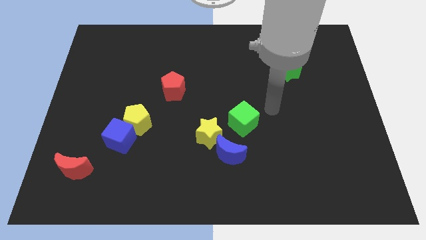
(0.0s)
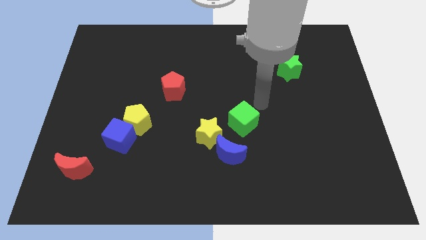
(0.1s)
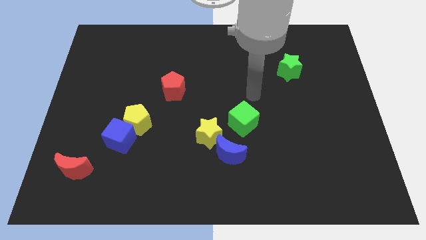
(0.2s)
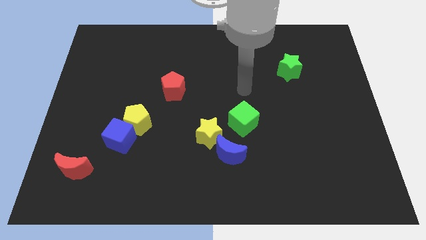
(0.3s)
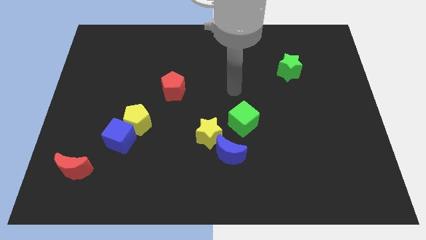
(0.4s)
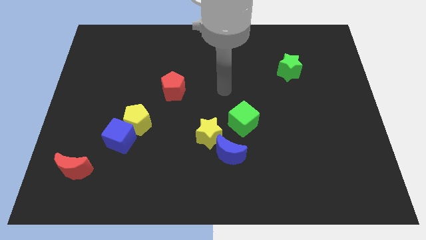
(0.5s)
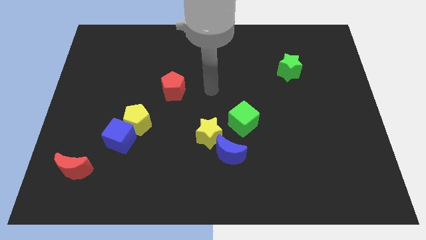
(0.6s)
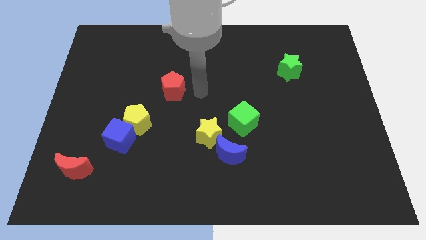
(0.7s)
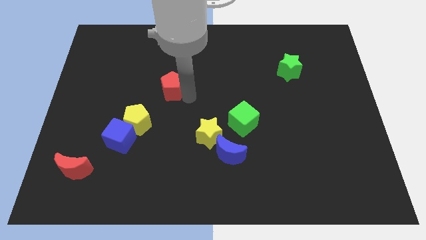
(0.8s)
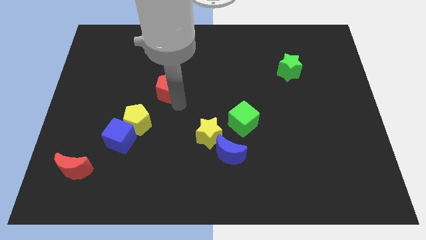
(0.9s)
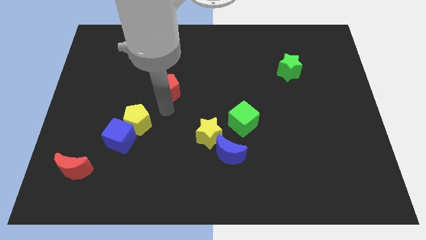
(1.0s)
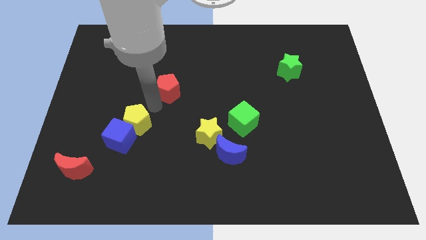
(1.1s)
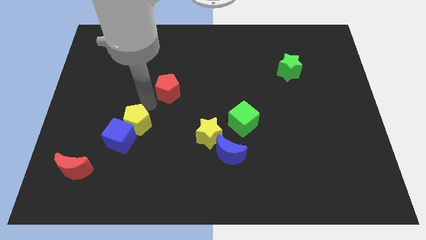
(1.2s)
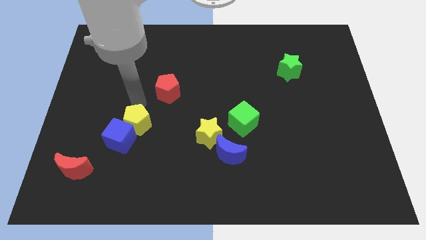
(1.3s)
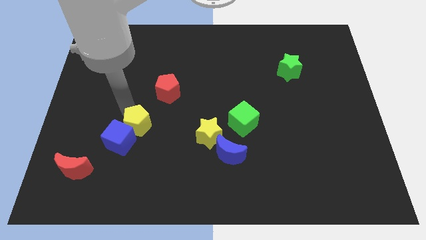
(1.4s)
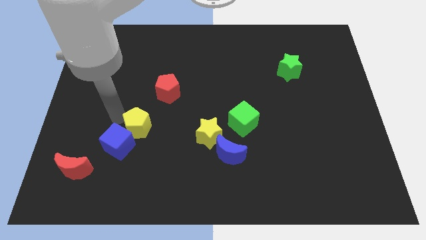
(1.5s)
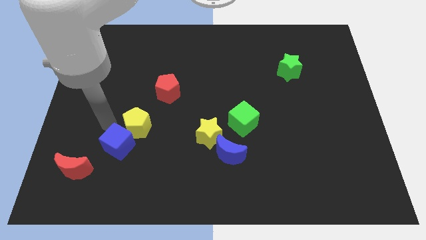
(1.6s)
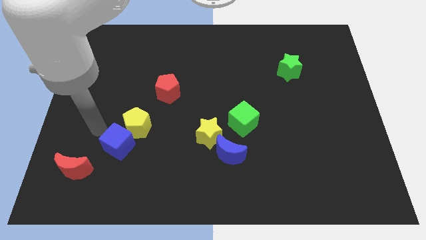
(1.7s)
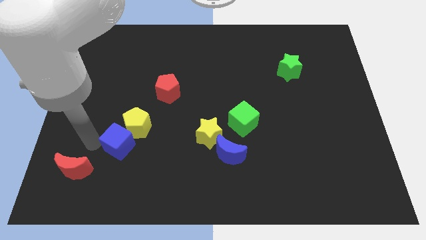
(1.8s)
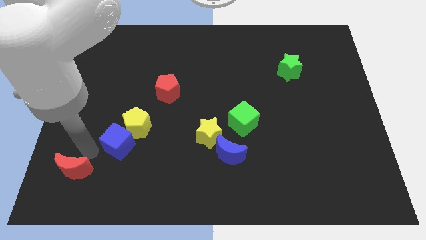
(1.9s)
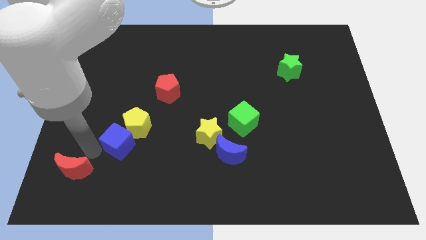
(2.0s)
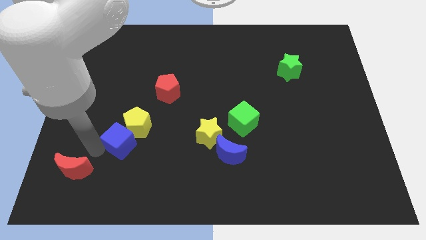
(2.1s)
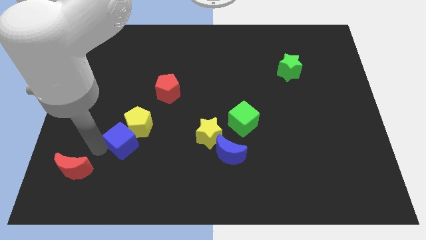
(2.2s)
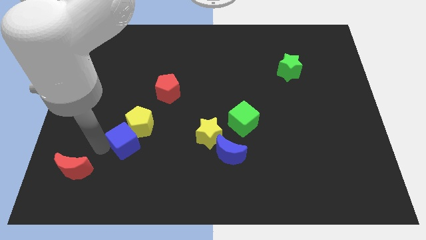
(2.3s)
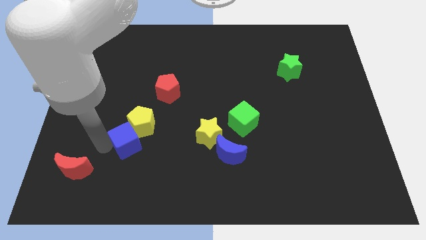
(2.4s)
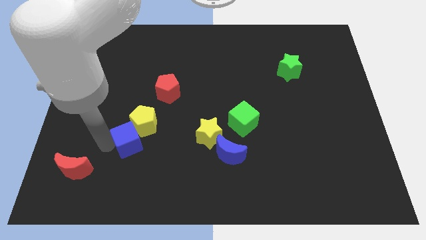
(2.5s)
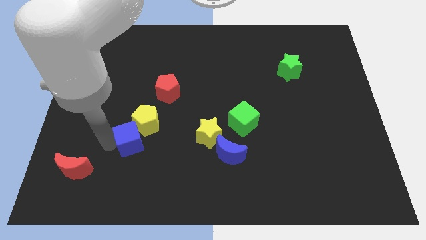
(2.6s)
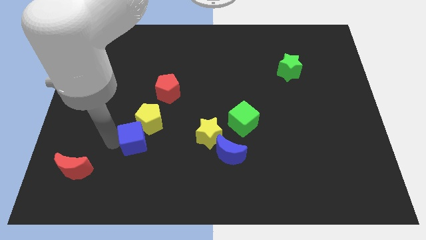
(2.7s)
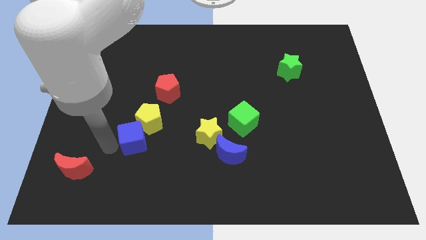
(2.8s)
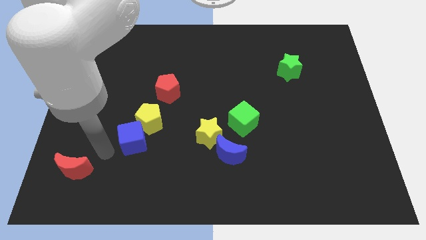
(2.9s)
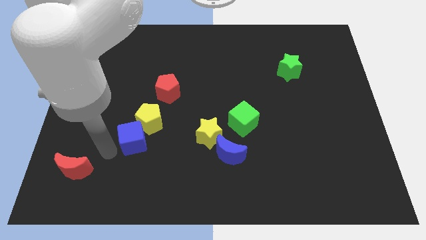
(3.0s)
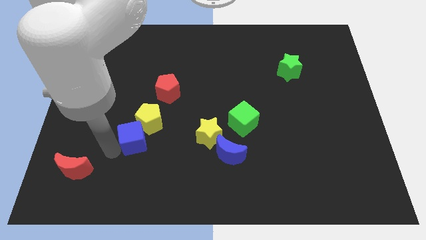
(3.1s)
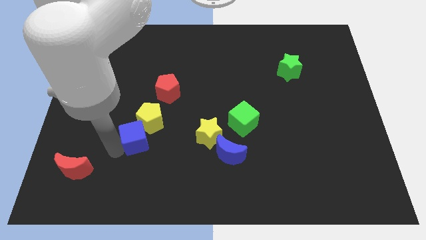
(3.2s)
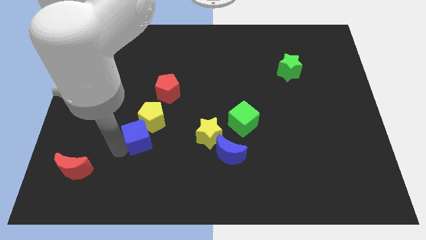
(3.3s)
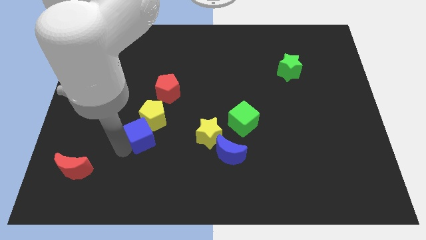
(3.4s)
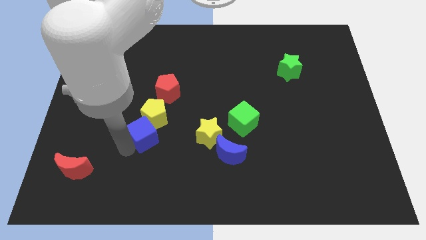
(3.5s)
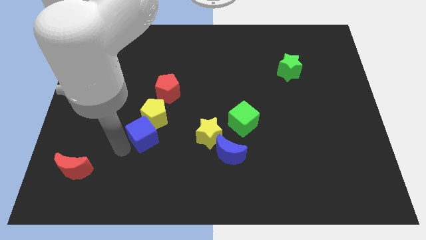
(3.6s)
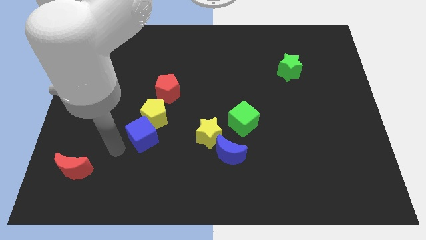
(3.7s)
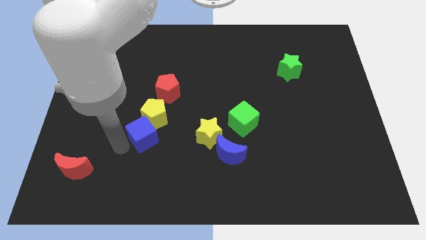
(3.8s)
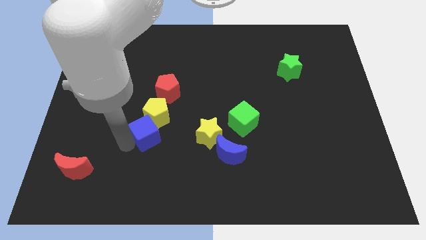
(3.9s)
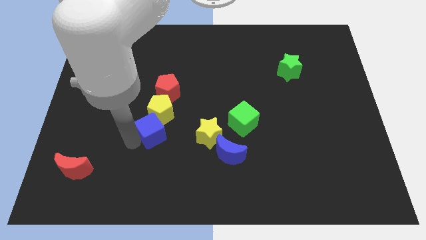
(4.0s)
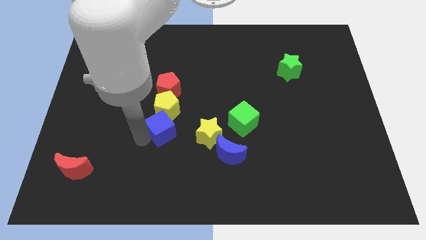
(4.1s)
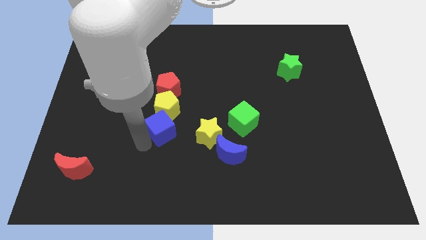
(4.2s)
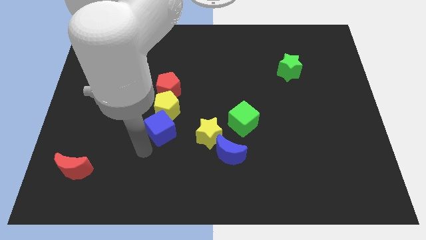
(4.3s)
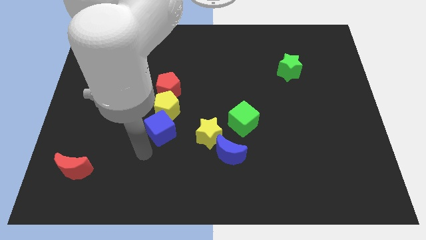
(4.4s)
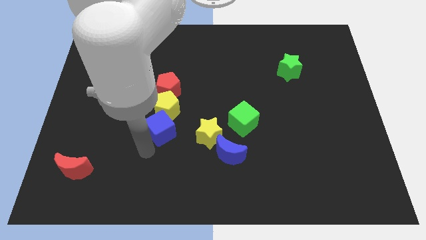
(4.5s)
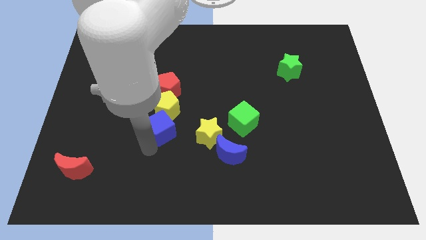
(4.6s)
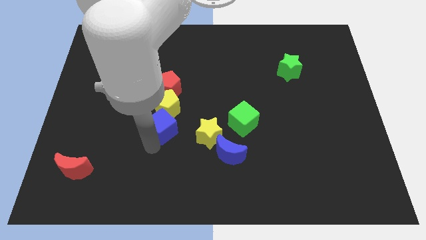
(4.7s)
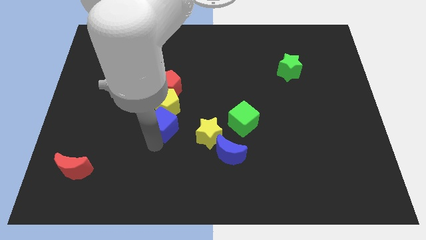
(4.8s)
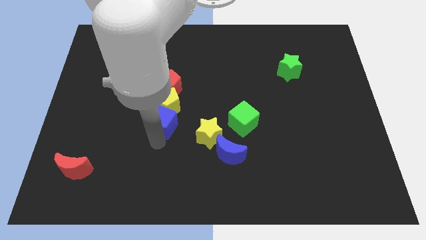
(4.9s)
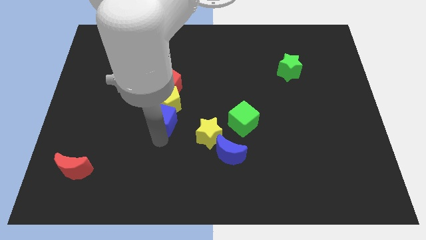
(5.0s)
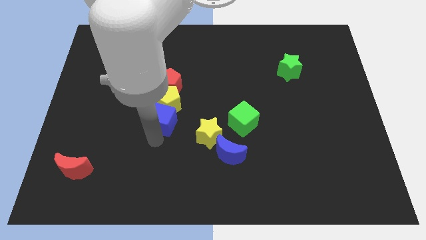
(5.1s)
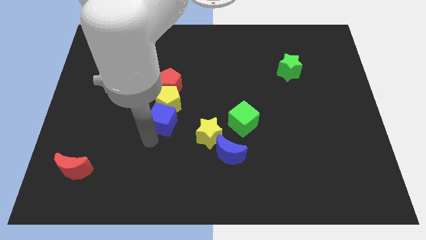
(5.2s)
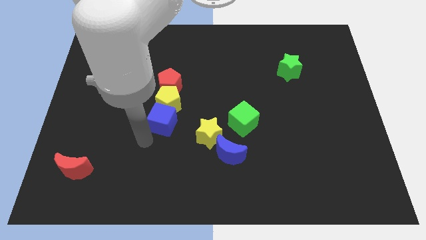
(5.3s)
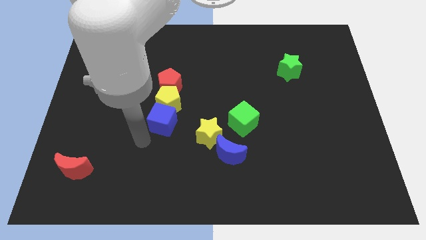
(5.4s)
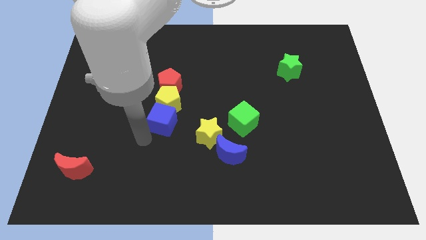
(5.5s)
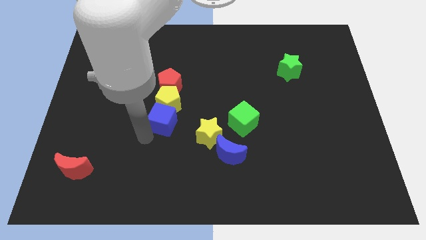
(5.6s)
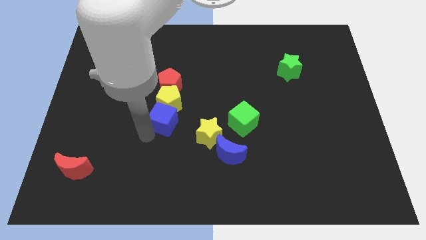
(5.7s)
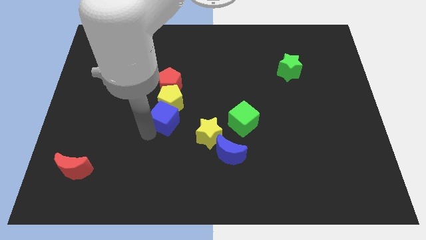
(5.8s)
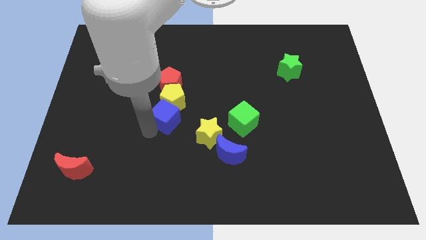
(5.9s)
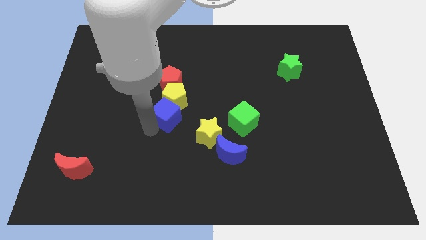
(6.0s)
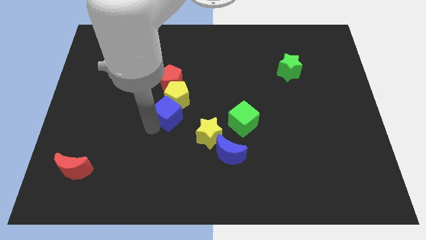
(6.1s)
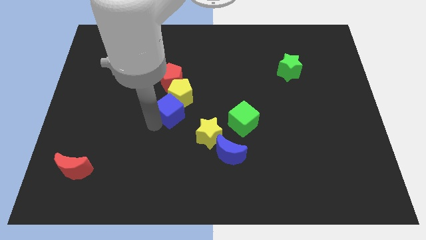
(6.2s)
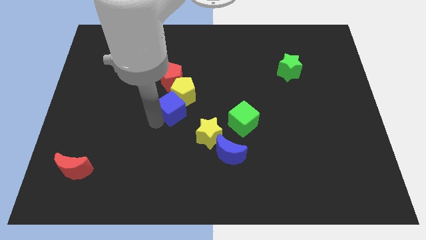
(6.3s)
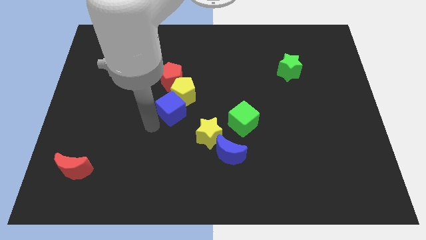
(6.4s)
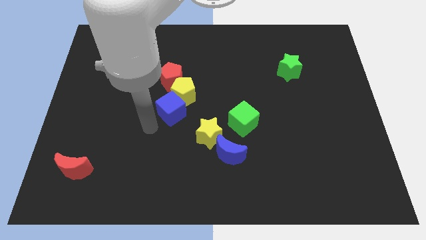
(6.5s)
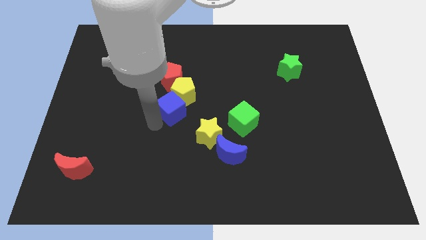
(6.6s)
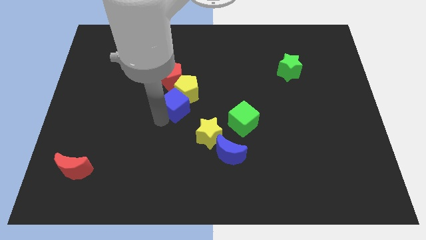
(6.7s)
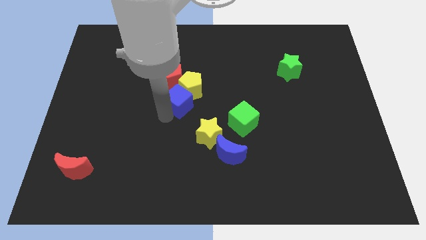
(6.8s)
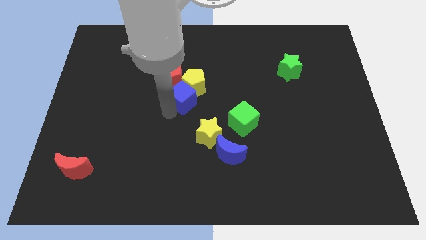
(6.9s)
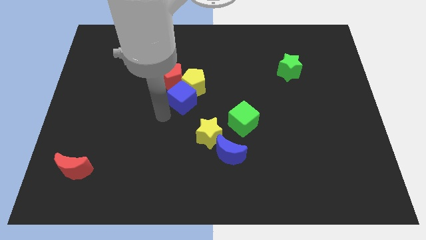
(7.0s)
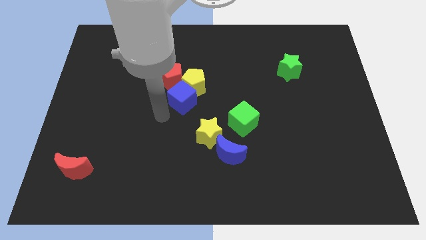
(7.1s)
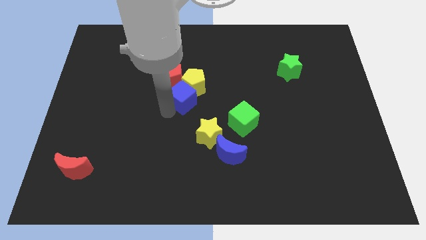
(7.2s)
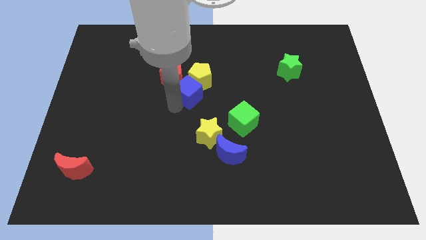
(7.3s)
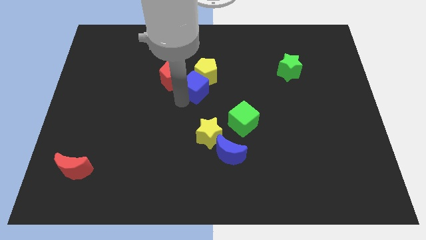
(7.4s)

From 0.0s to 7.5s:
push the blue cube upwards and right

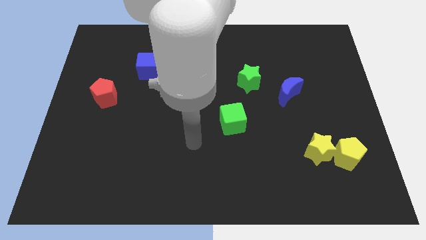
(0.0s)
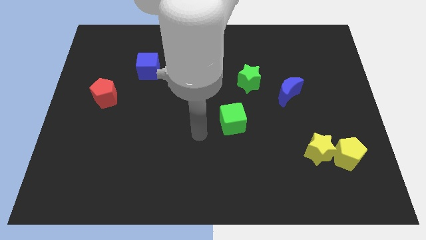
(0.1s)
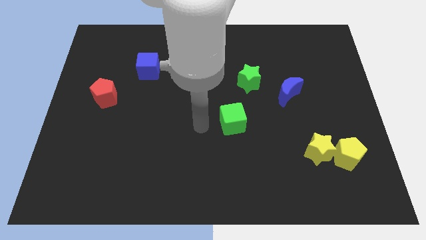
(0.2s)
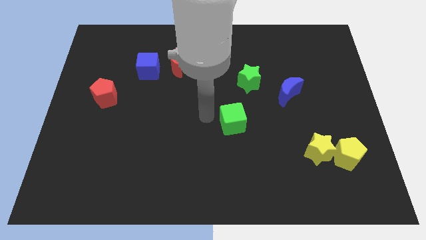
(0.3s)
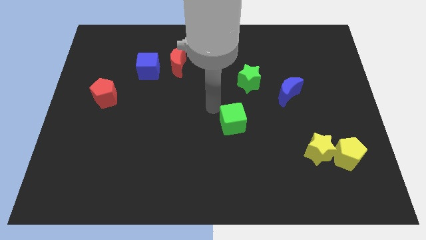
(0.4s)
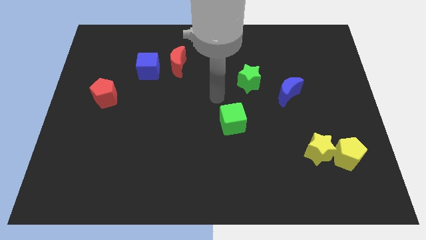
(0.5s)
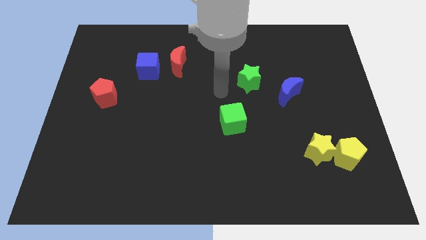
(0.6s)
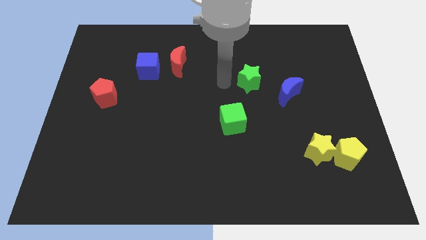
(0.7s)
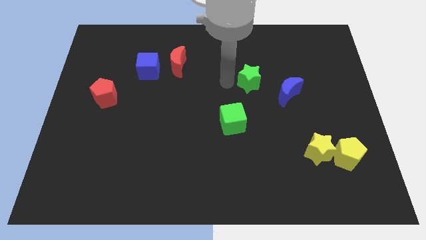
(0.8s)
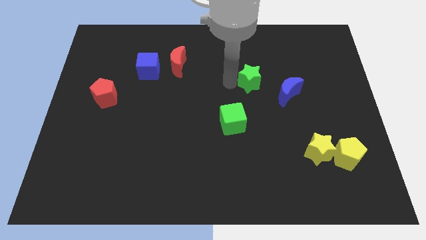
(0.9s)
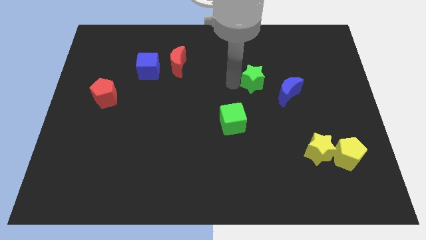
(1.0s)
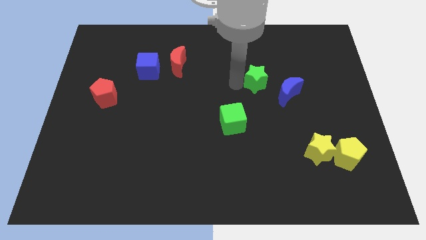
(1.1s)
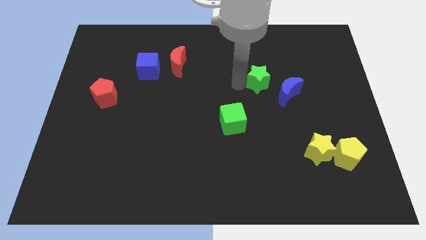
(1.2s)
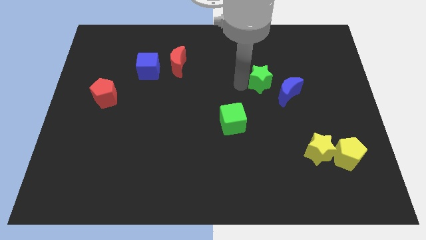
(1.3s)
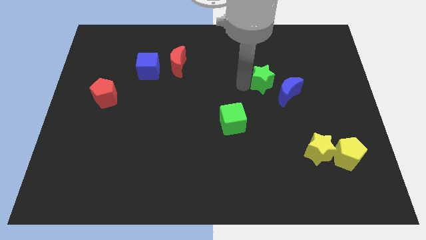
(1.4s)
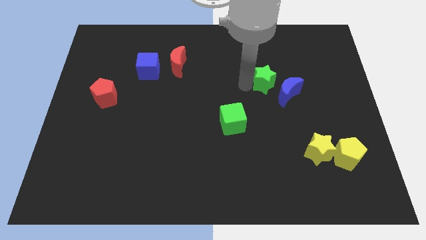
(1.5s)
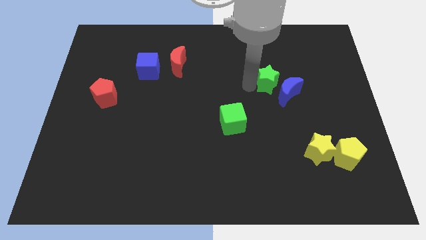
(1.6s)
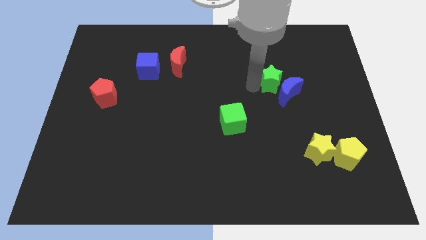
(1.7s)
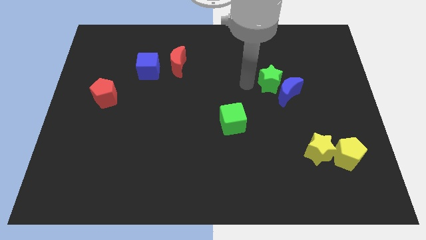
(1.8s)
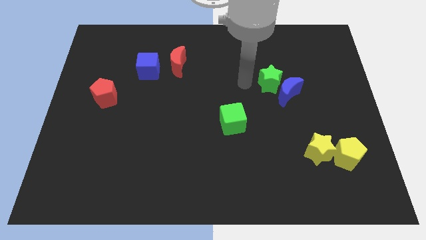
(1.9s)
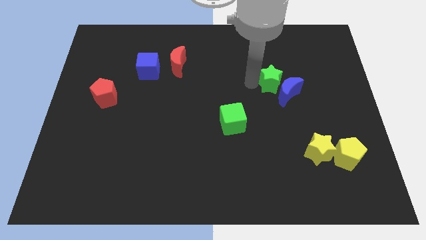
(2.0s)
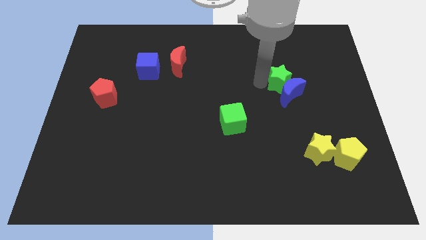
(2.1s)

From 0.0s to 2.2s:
move the green star a little bit right
